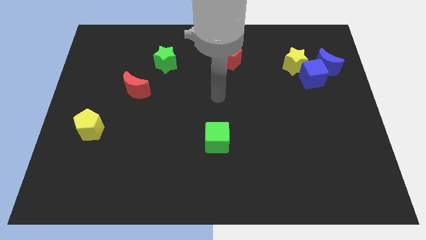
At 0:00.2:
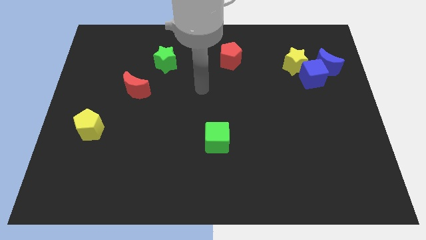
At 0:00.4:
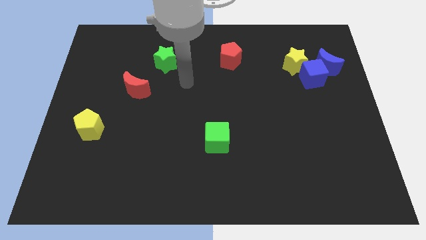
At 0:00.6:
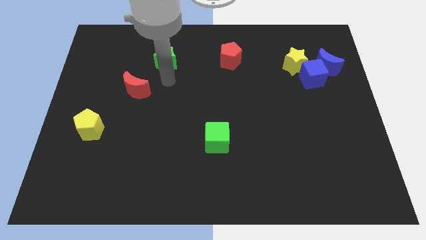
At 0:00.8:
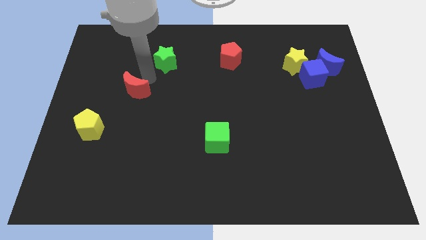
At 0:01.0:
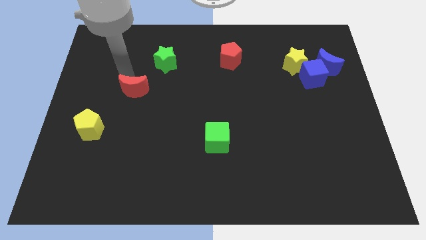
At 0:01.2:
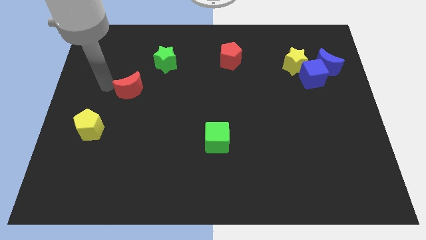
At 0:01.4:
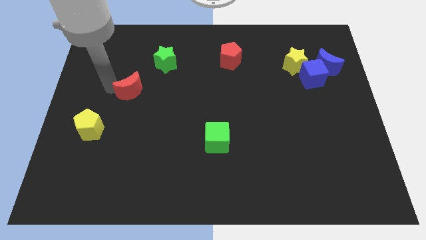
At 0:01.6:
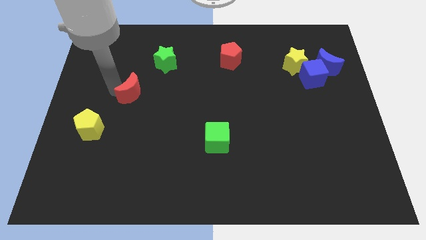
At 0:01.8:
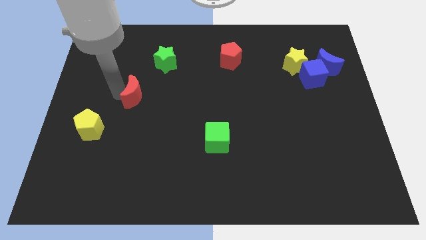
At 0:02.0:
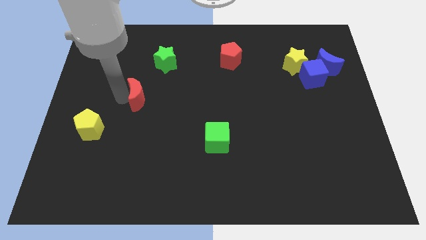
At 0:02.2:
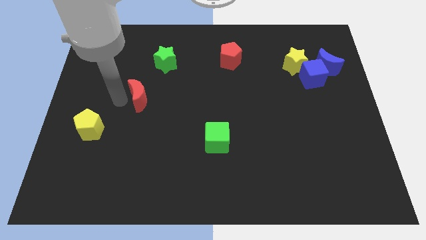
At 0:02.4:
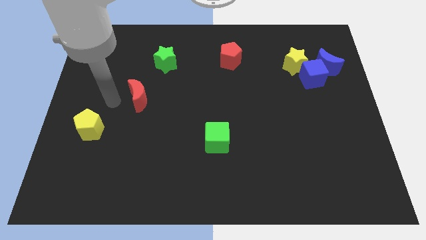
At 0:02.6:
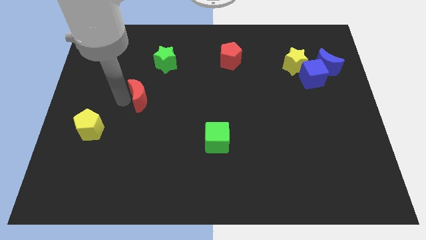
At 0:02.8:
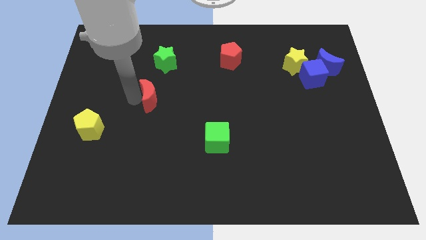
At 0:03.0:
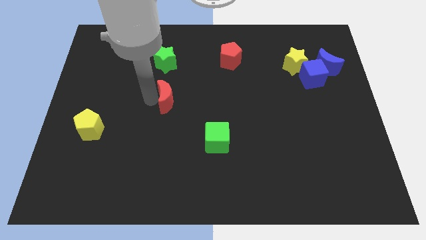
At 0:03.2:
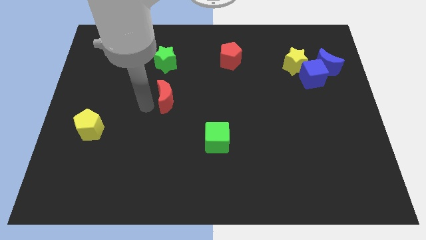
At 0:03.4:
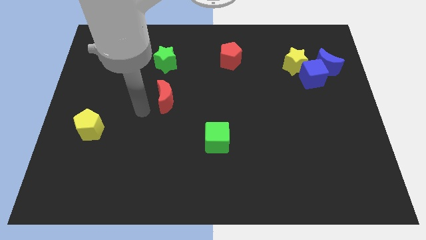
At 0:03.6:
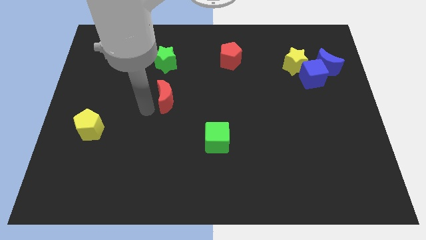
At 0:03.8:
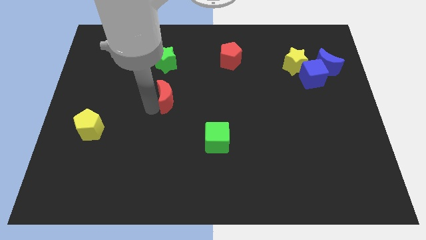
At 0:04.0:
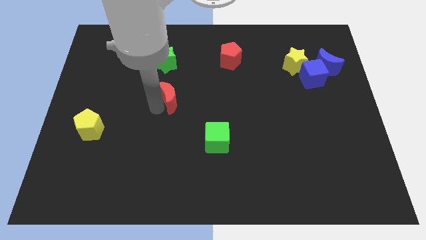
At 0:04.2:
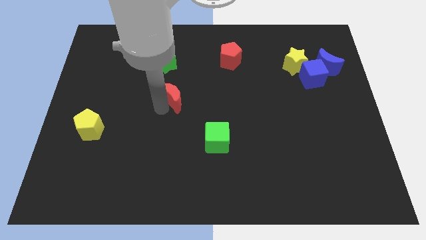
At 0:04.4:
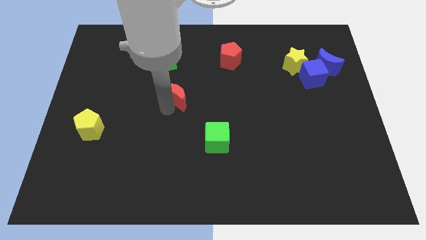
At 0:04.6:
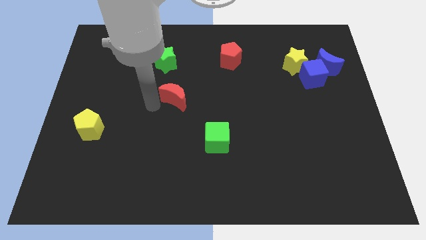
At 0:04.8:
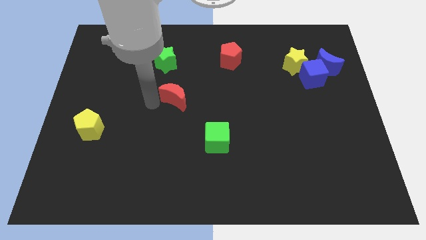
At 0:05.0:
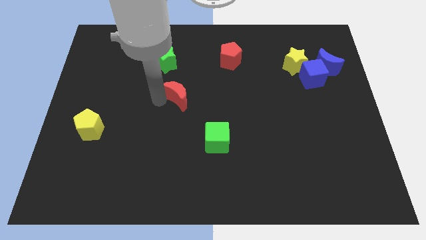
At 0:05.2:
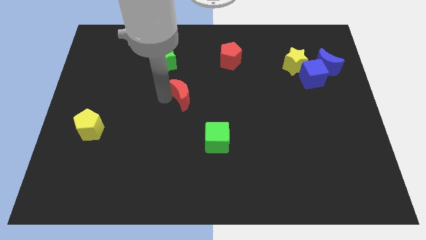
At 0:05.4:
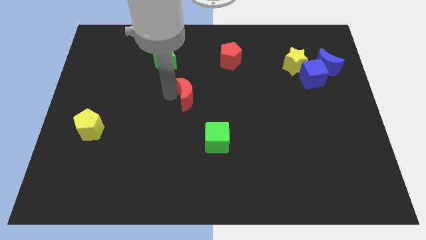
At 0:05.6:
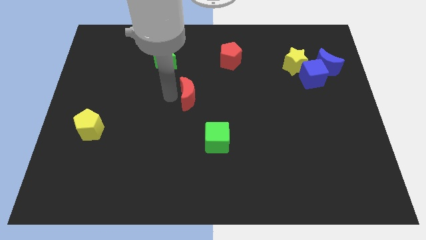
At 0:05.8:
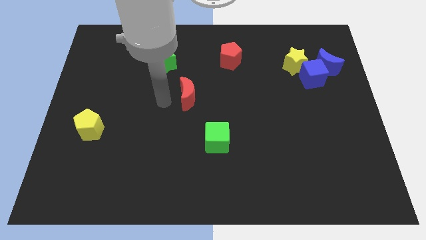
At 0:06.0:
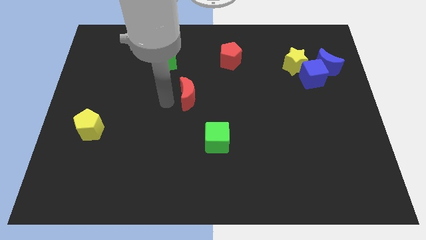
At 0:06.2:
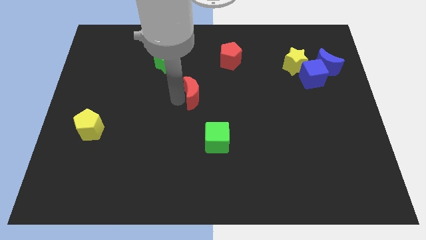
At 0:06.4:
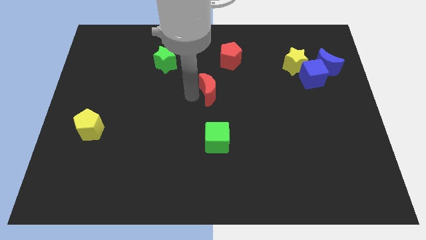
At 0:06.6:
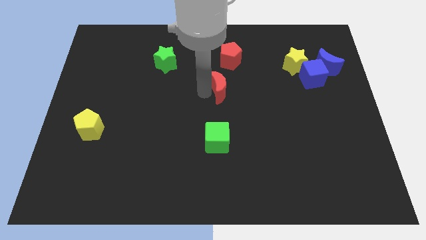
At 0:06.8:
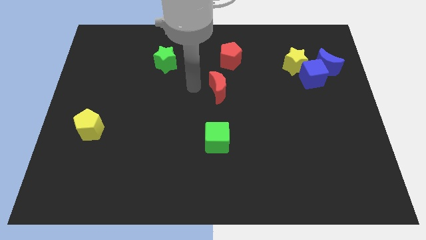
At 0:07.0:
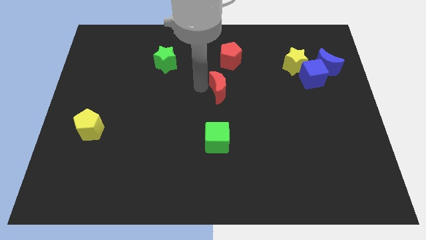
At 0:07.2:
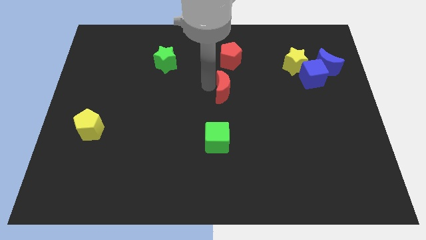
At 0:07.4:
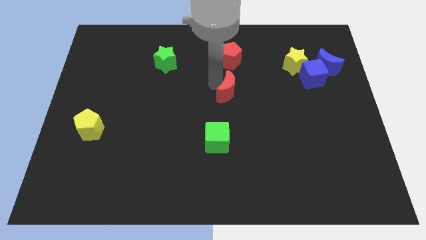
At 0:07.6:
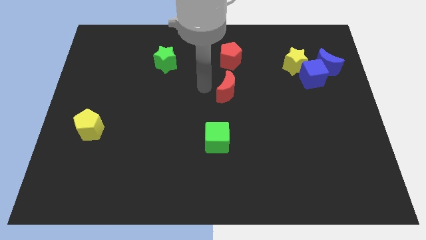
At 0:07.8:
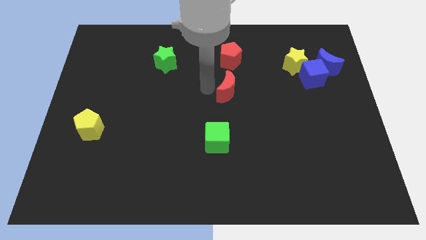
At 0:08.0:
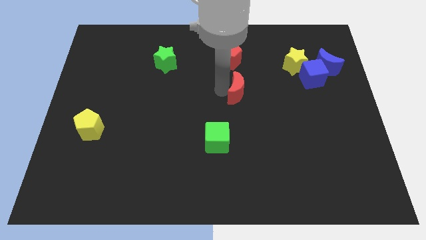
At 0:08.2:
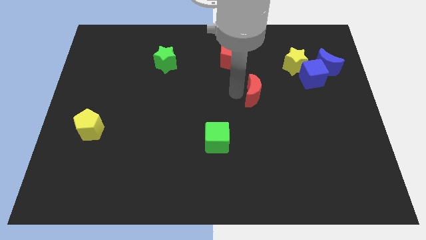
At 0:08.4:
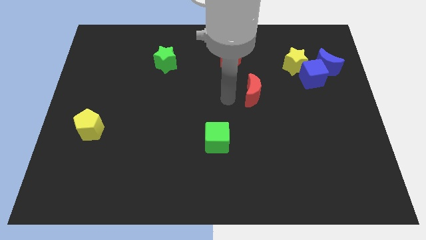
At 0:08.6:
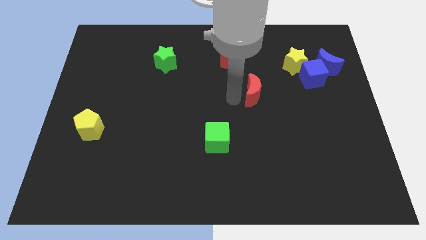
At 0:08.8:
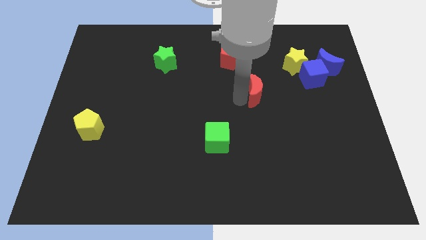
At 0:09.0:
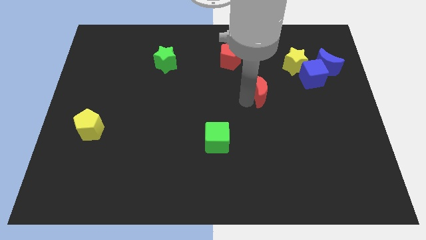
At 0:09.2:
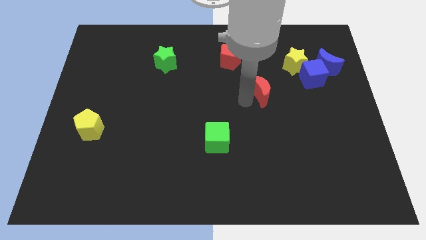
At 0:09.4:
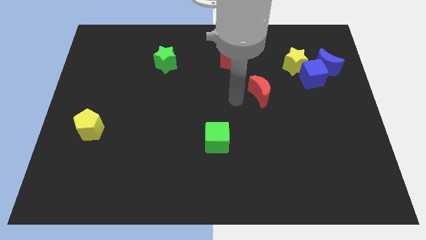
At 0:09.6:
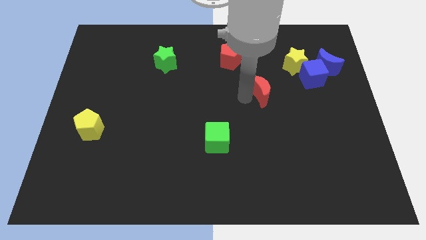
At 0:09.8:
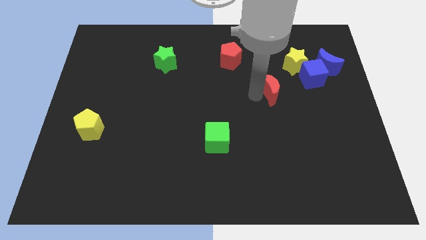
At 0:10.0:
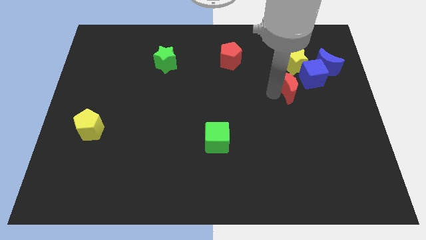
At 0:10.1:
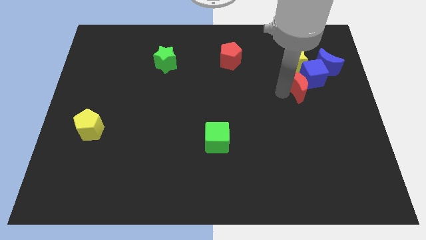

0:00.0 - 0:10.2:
put the red moon to the blue cube

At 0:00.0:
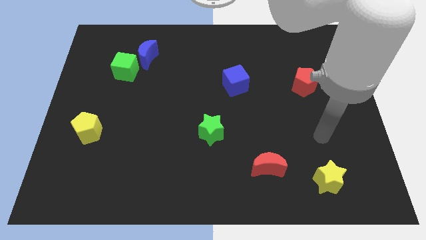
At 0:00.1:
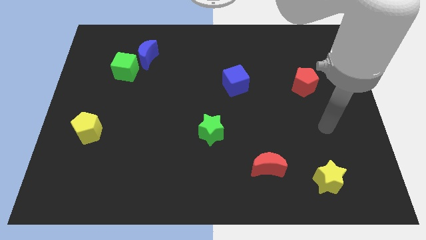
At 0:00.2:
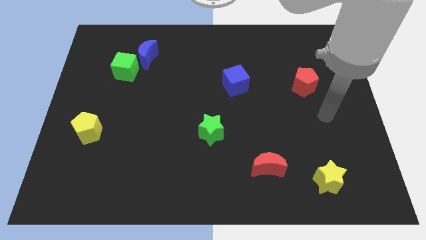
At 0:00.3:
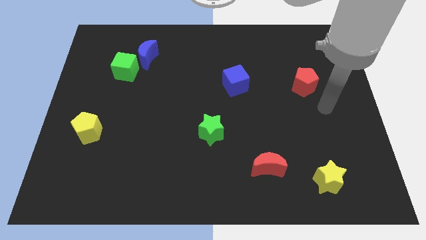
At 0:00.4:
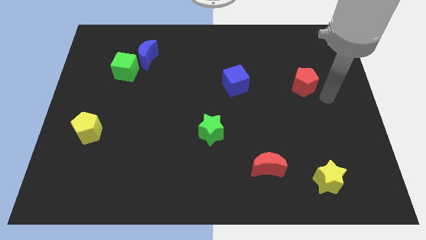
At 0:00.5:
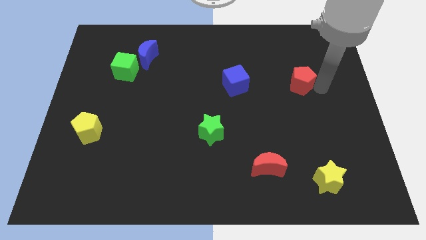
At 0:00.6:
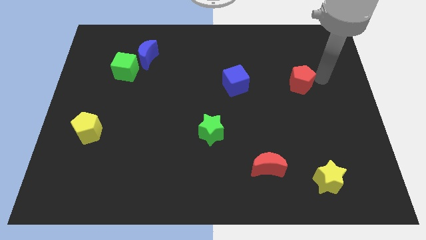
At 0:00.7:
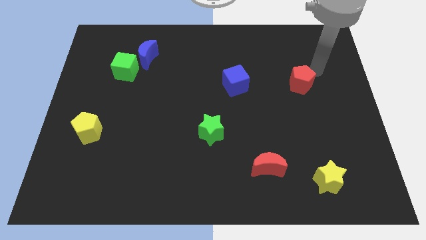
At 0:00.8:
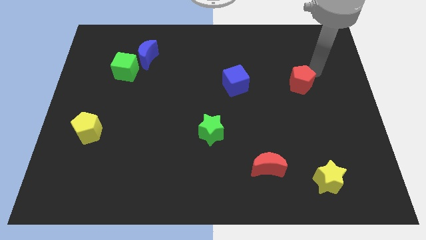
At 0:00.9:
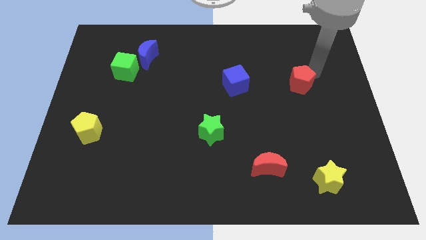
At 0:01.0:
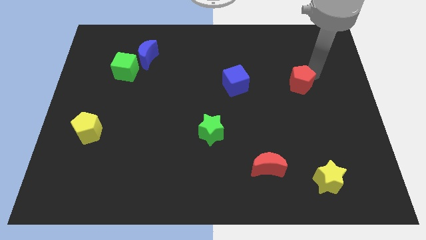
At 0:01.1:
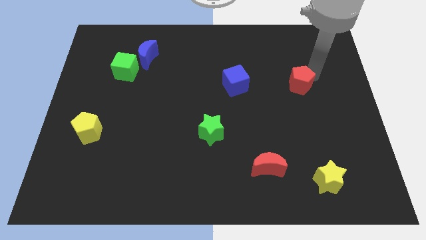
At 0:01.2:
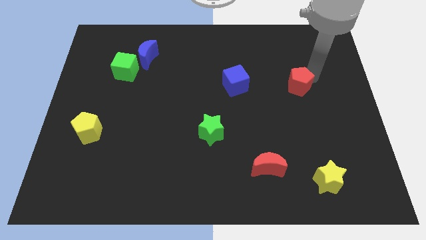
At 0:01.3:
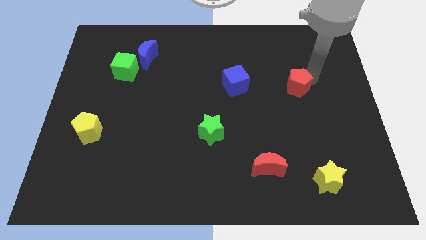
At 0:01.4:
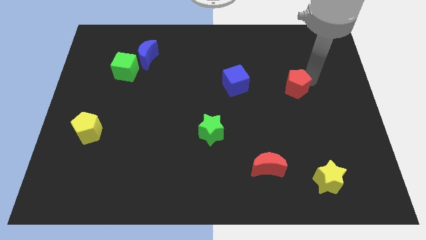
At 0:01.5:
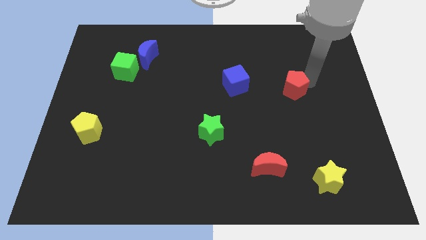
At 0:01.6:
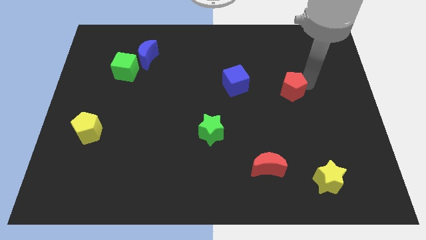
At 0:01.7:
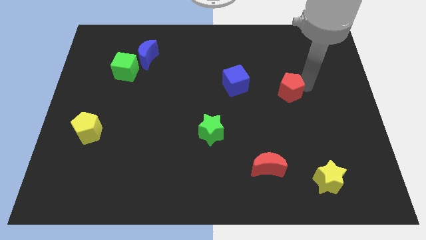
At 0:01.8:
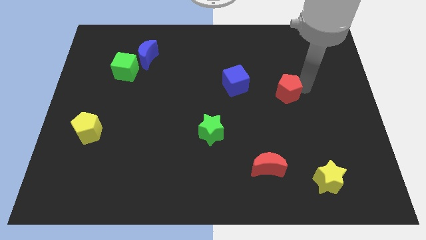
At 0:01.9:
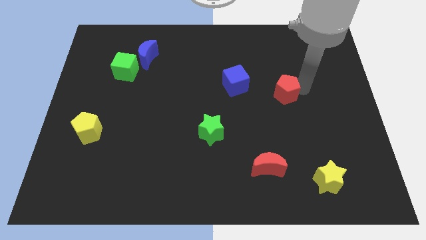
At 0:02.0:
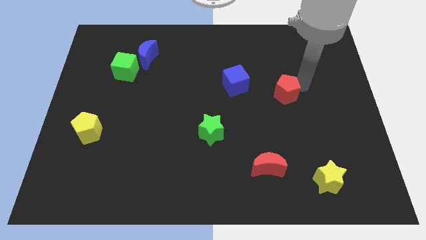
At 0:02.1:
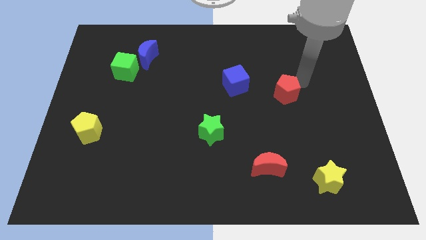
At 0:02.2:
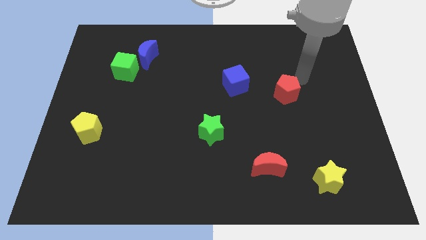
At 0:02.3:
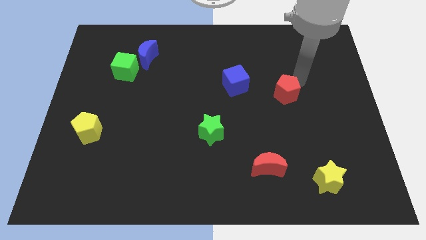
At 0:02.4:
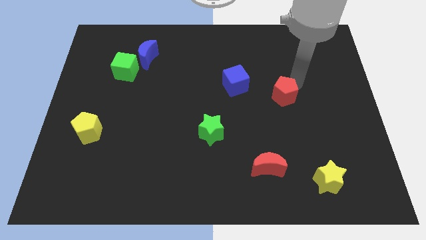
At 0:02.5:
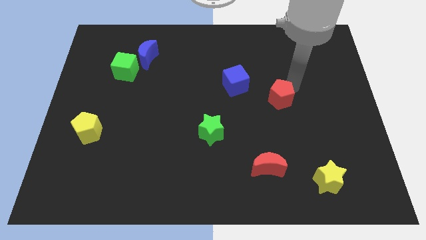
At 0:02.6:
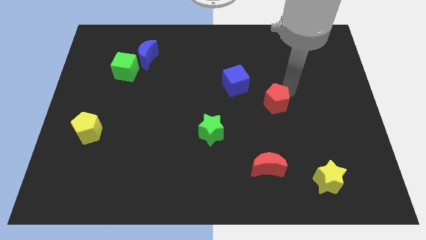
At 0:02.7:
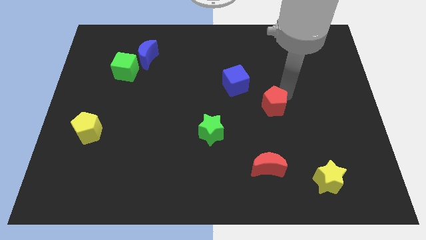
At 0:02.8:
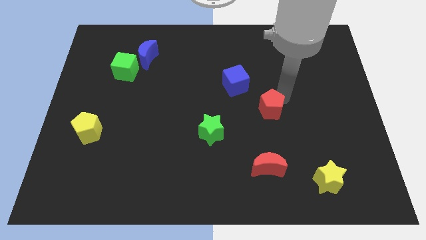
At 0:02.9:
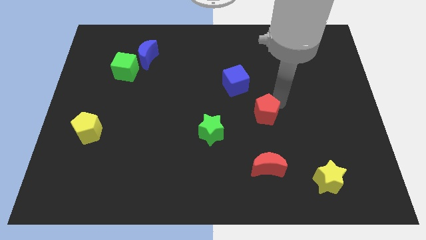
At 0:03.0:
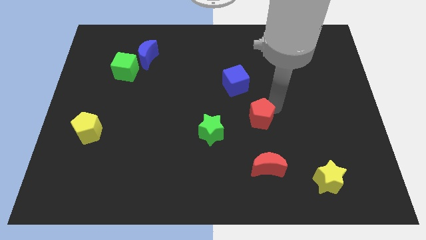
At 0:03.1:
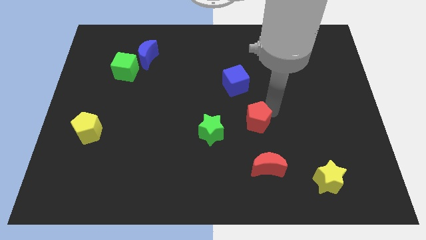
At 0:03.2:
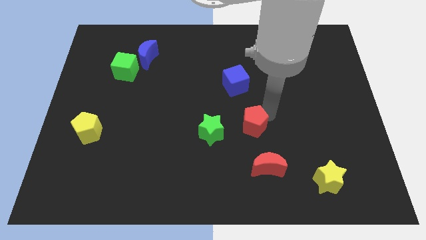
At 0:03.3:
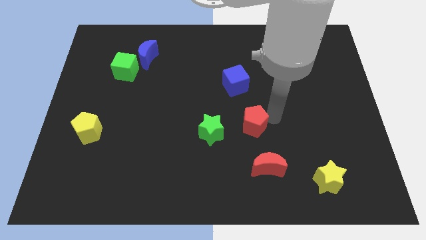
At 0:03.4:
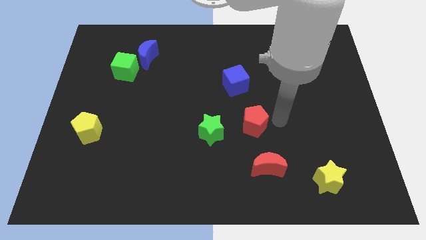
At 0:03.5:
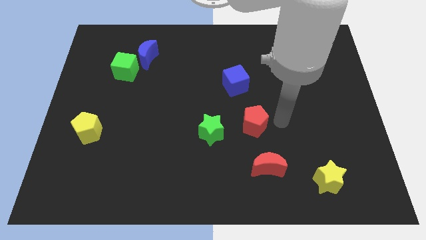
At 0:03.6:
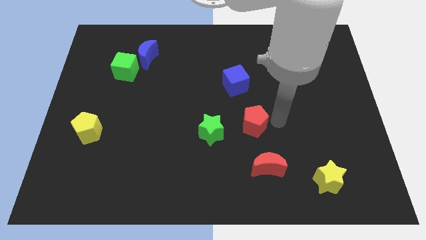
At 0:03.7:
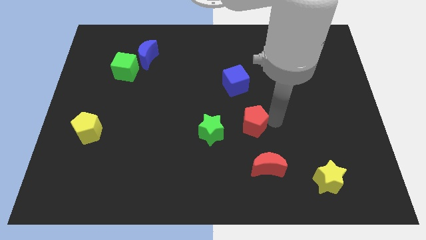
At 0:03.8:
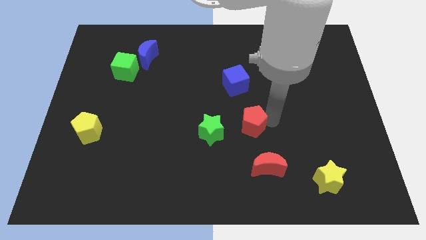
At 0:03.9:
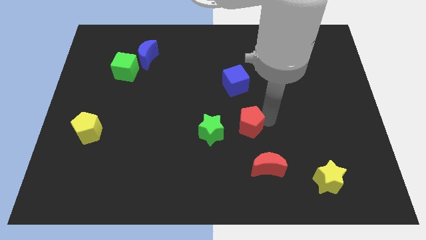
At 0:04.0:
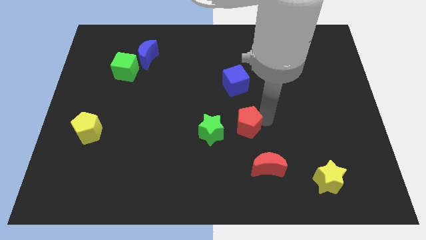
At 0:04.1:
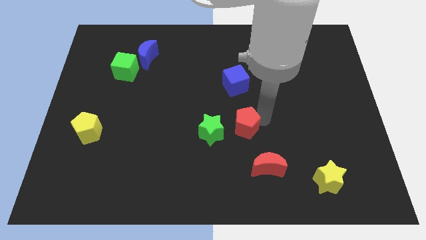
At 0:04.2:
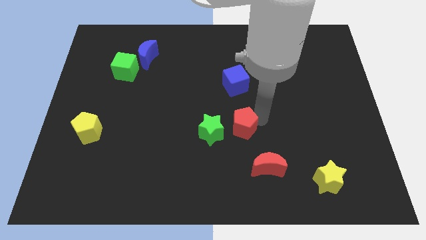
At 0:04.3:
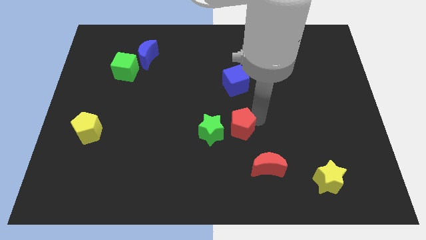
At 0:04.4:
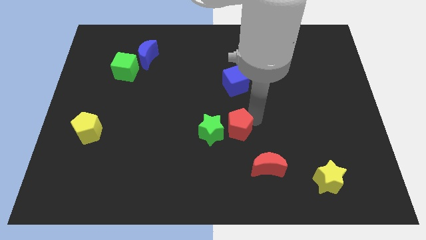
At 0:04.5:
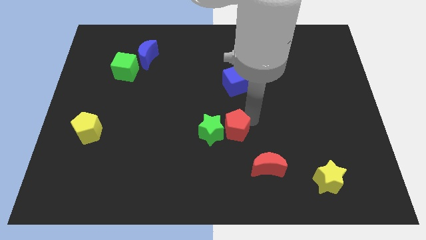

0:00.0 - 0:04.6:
move the red pentagon to the green star
